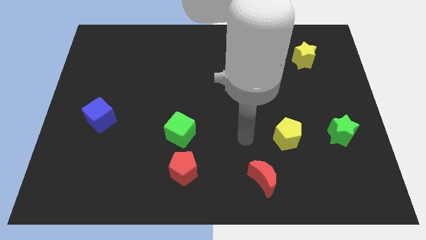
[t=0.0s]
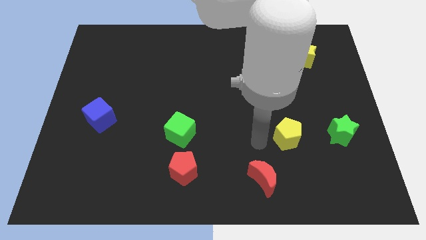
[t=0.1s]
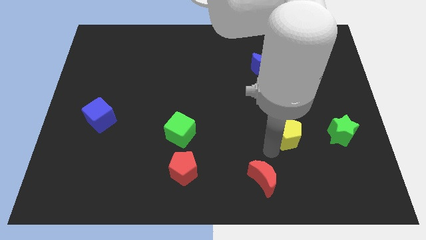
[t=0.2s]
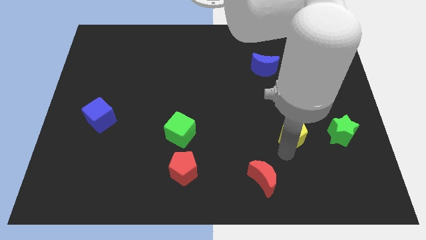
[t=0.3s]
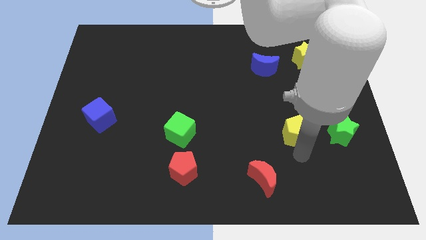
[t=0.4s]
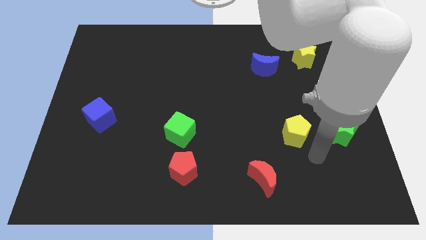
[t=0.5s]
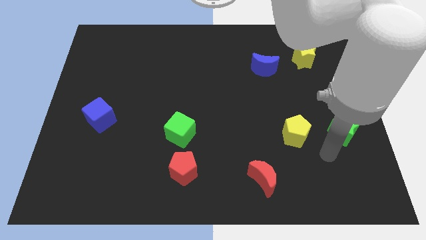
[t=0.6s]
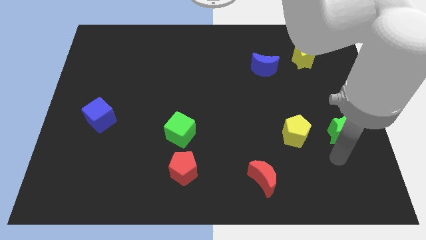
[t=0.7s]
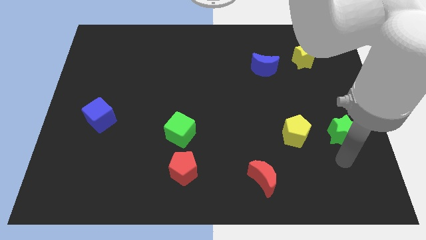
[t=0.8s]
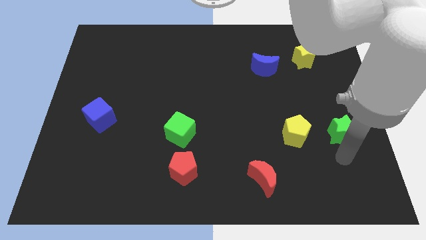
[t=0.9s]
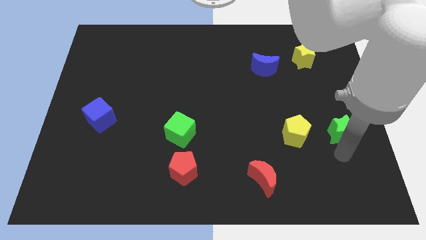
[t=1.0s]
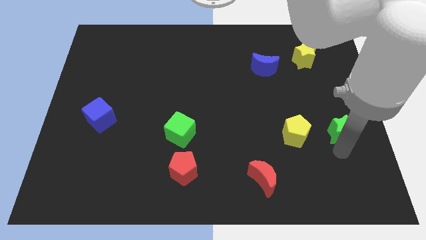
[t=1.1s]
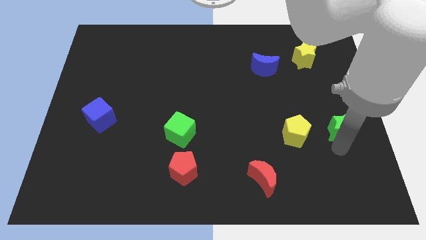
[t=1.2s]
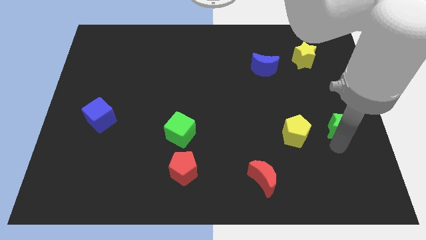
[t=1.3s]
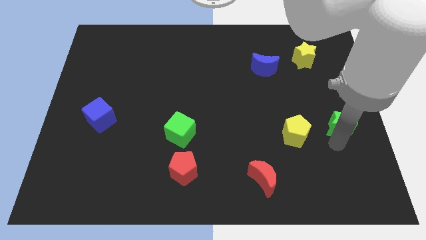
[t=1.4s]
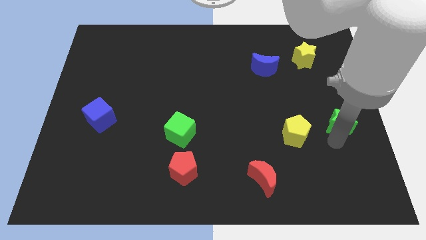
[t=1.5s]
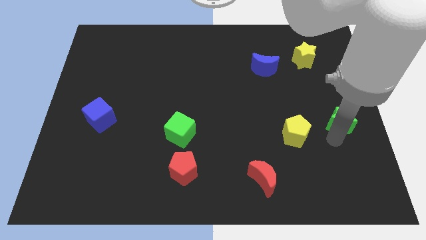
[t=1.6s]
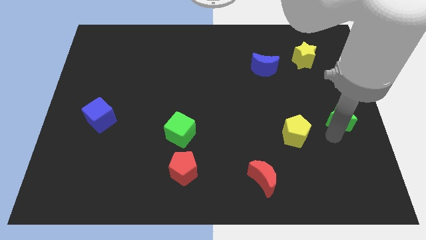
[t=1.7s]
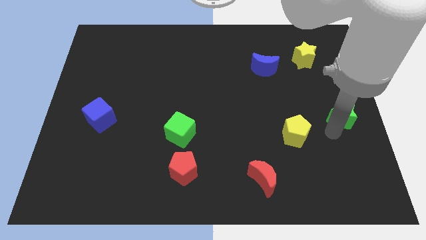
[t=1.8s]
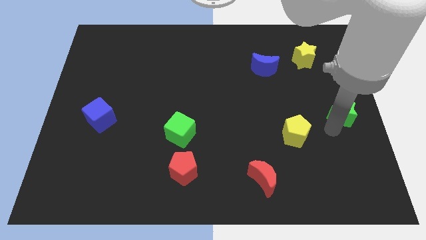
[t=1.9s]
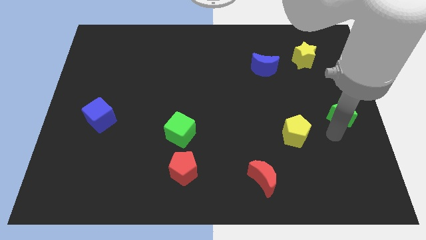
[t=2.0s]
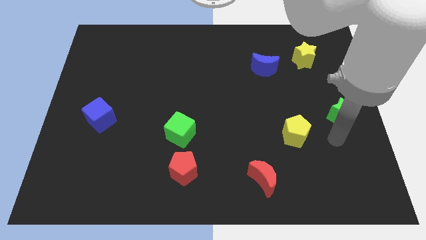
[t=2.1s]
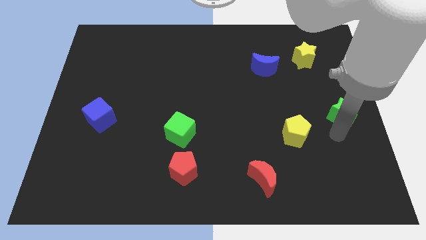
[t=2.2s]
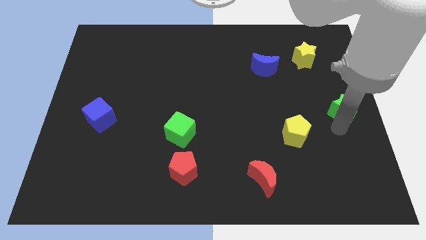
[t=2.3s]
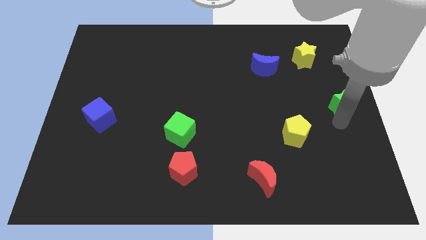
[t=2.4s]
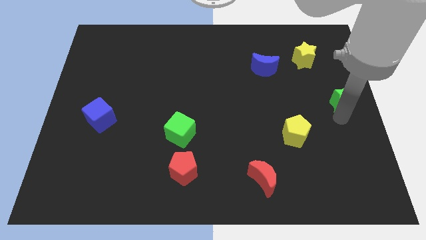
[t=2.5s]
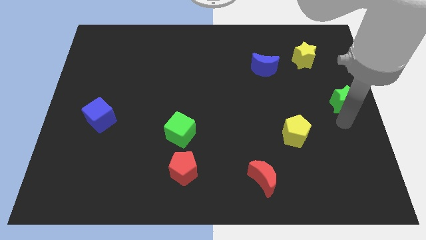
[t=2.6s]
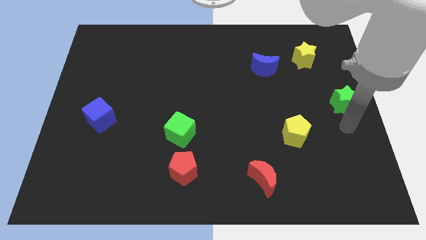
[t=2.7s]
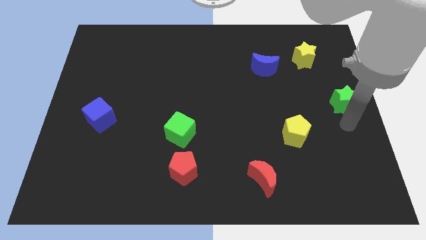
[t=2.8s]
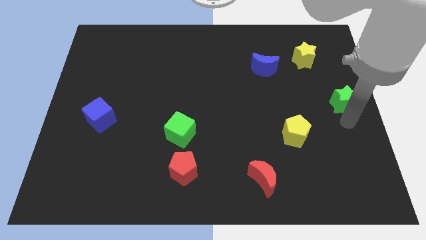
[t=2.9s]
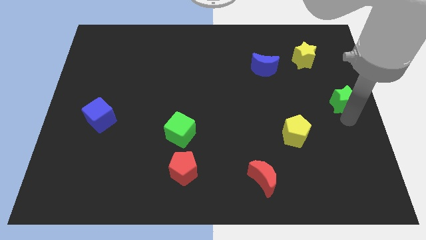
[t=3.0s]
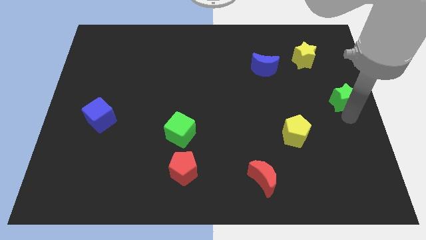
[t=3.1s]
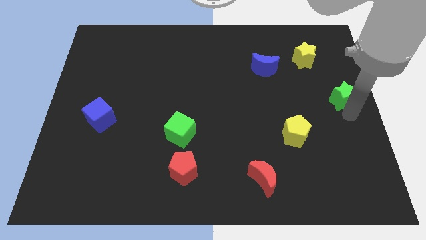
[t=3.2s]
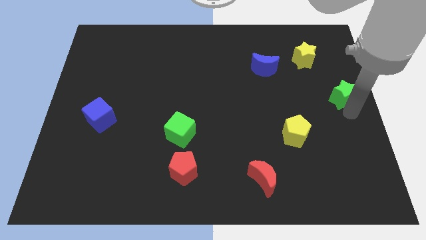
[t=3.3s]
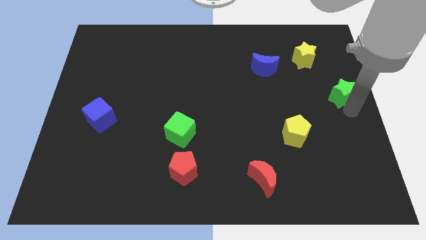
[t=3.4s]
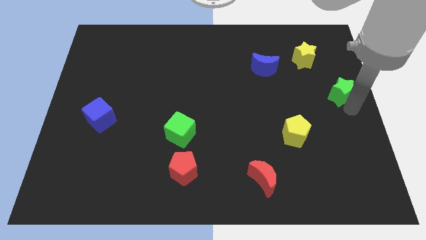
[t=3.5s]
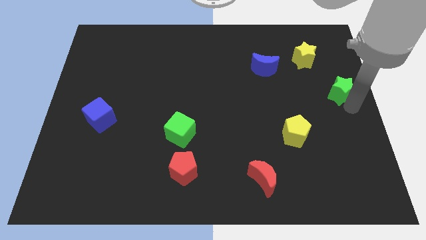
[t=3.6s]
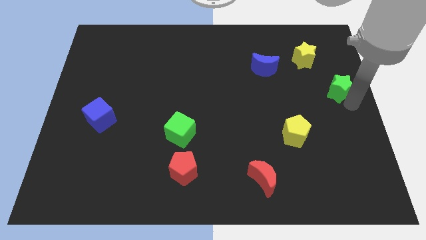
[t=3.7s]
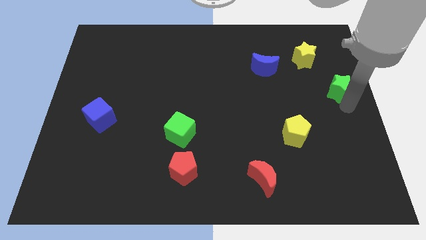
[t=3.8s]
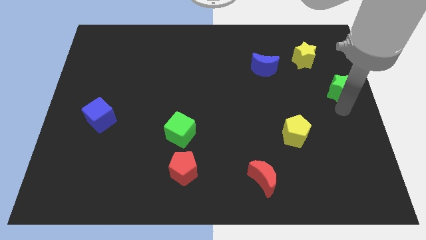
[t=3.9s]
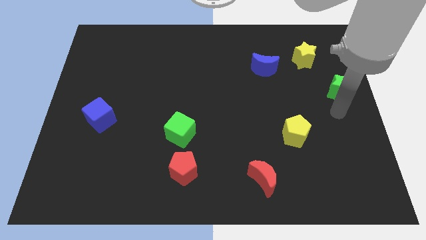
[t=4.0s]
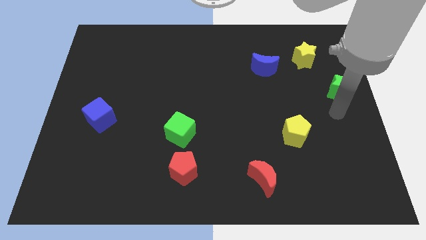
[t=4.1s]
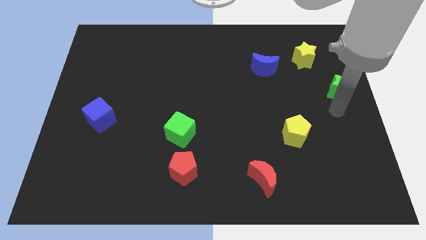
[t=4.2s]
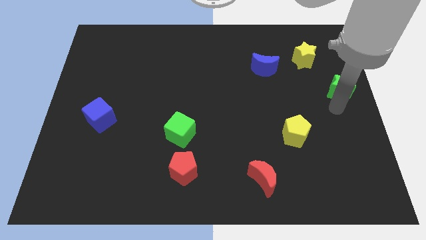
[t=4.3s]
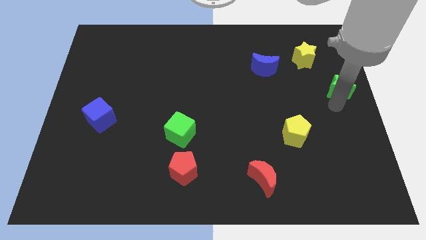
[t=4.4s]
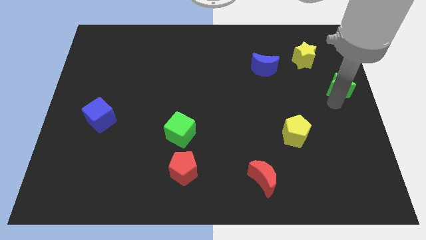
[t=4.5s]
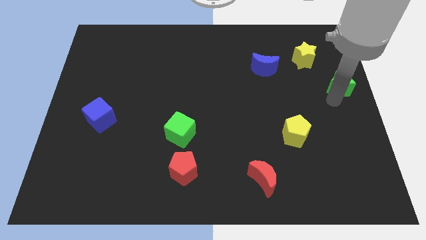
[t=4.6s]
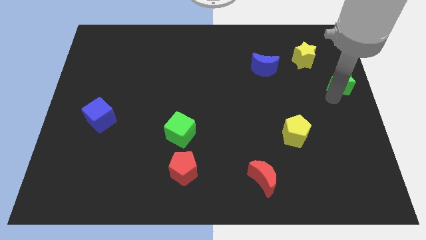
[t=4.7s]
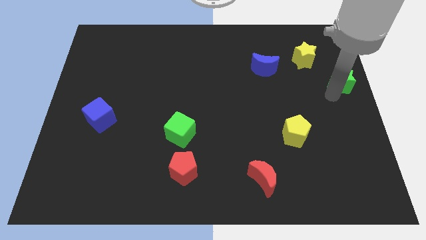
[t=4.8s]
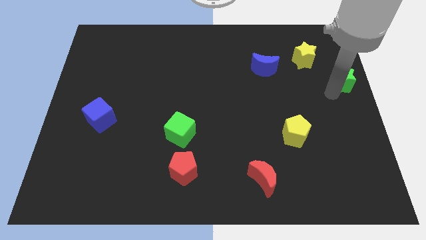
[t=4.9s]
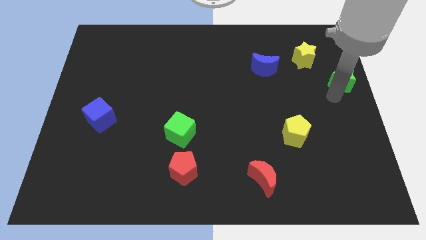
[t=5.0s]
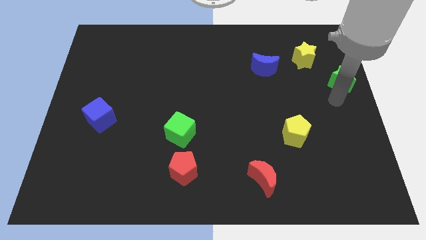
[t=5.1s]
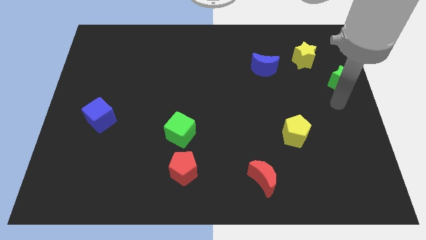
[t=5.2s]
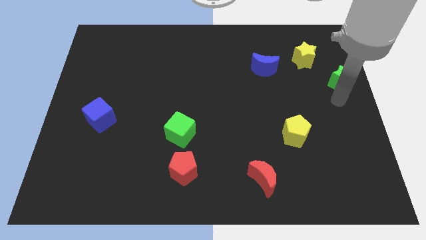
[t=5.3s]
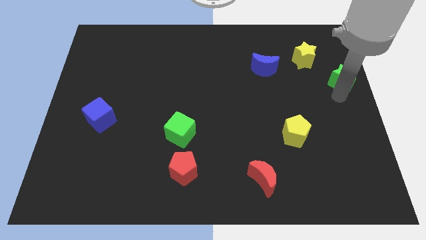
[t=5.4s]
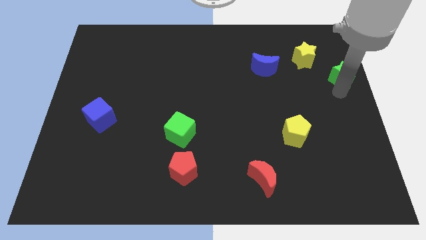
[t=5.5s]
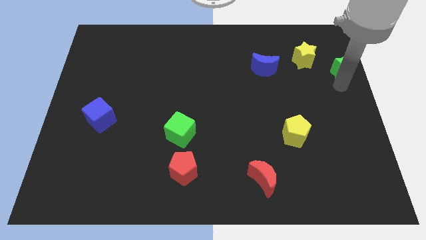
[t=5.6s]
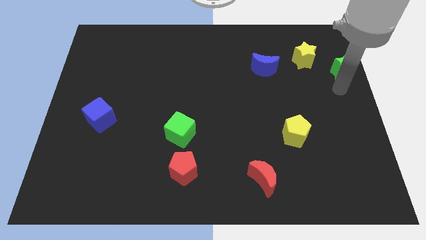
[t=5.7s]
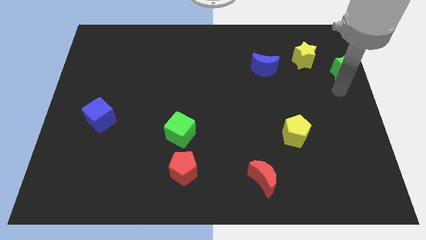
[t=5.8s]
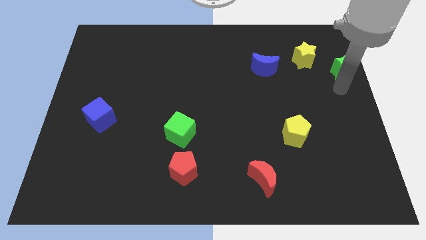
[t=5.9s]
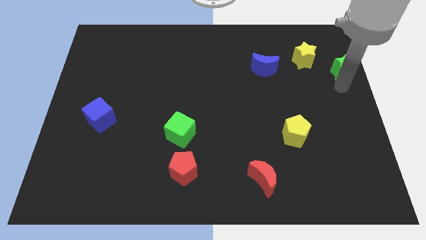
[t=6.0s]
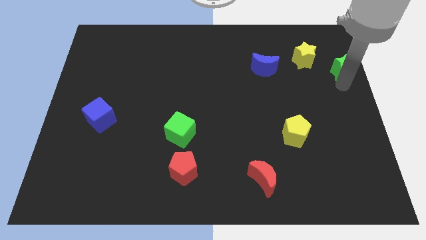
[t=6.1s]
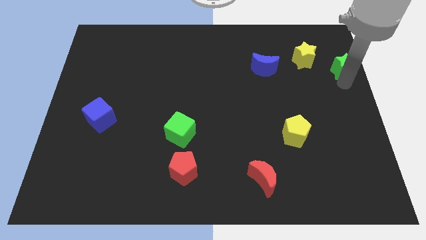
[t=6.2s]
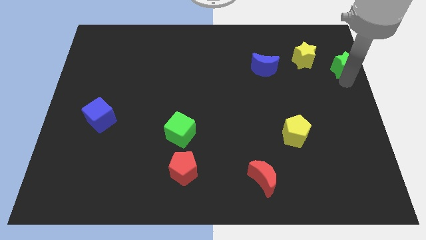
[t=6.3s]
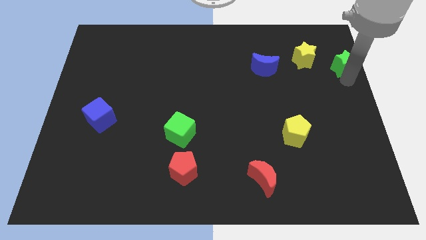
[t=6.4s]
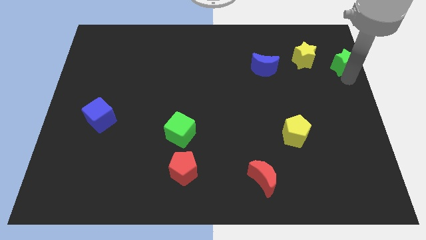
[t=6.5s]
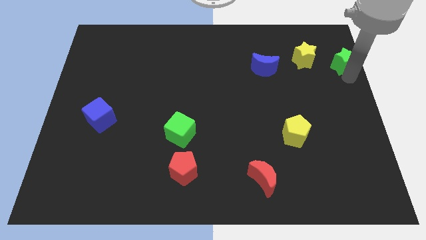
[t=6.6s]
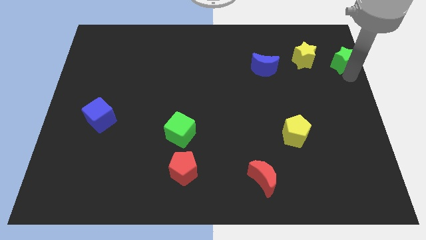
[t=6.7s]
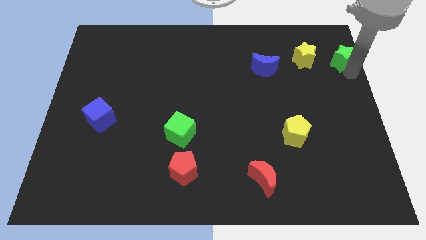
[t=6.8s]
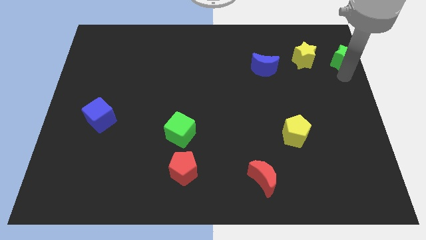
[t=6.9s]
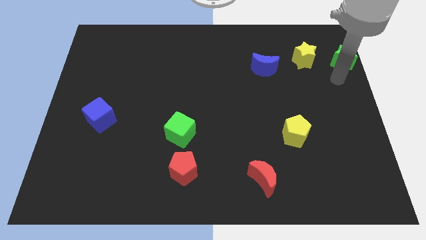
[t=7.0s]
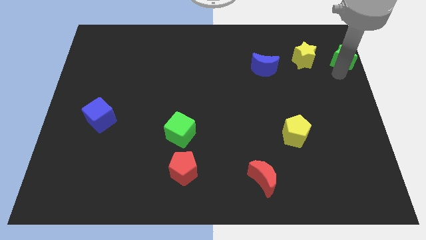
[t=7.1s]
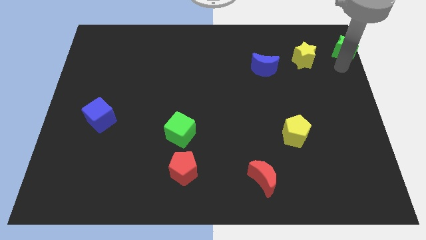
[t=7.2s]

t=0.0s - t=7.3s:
put the green star to the top right

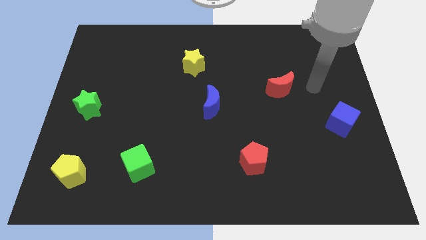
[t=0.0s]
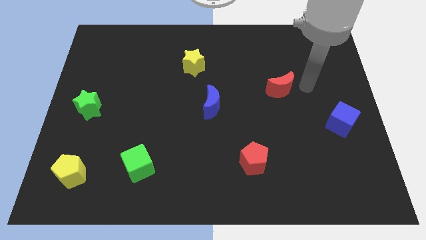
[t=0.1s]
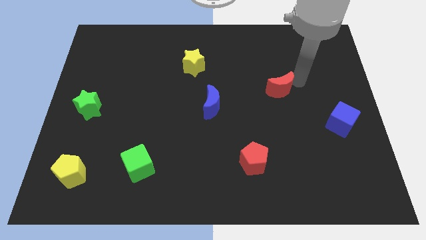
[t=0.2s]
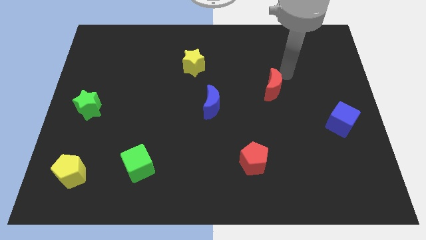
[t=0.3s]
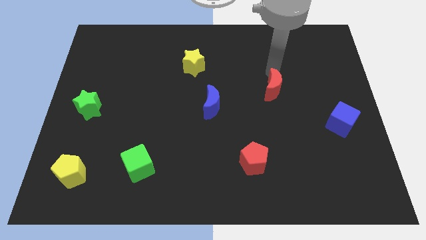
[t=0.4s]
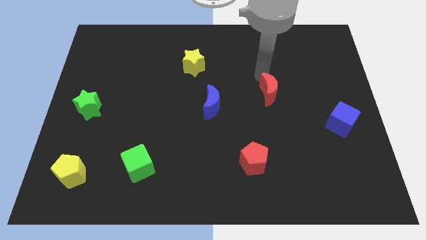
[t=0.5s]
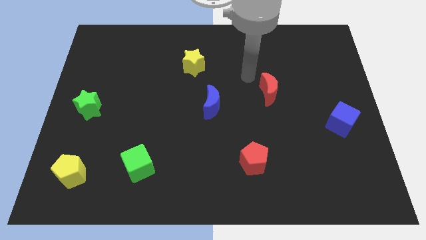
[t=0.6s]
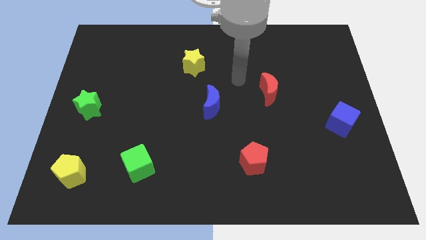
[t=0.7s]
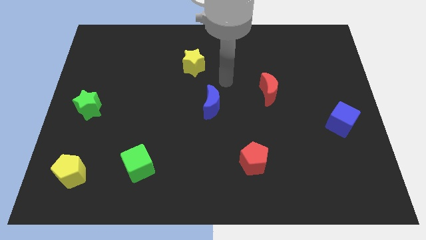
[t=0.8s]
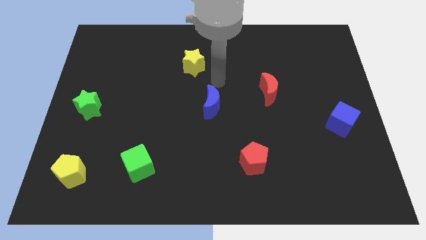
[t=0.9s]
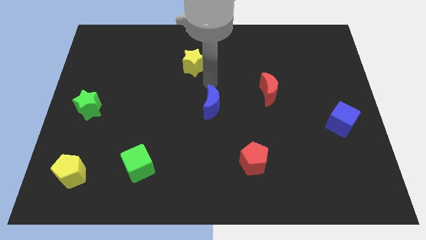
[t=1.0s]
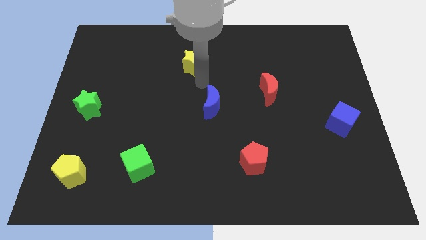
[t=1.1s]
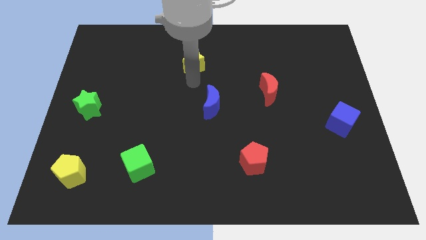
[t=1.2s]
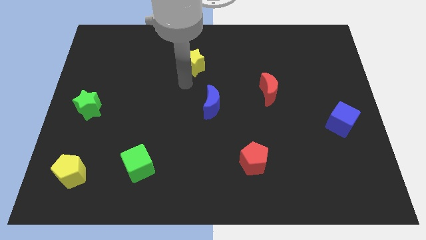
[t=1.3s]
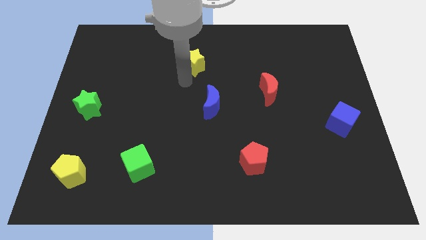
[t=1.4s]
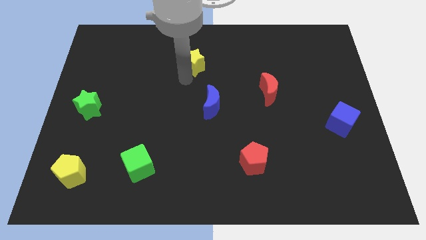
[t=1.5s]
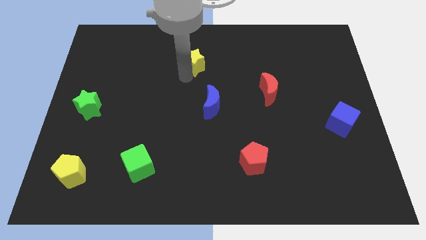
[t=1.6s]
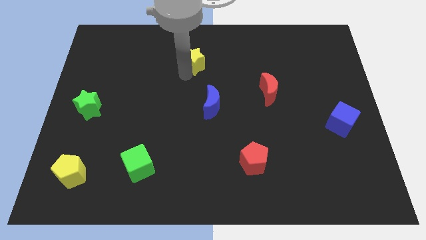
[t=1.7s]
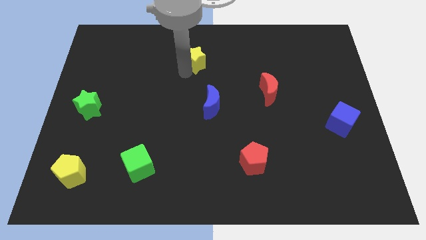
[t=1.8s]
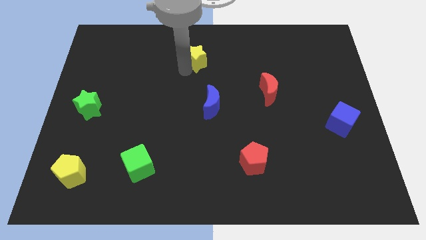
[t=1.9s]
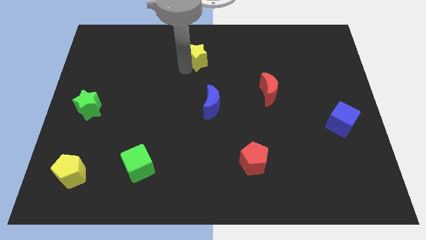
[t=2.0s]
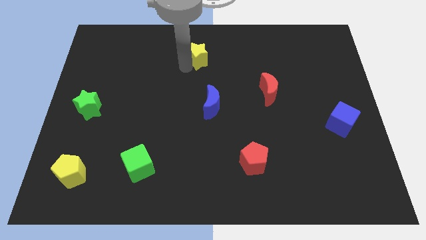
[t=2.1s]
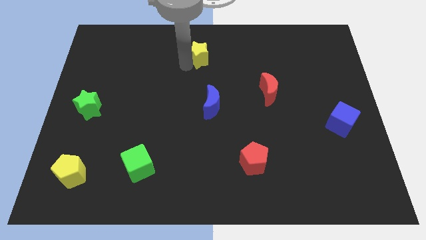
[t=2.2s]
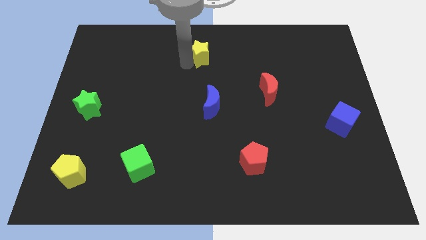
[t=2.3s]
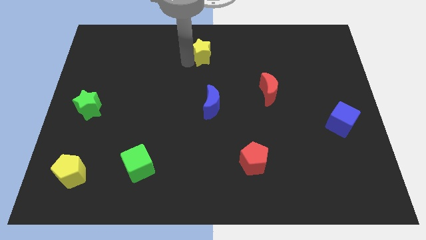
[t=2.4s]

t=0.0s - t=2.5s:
slide the yellow star to the top side
